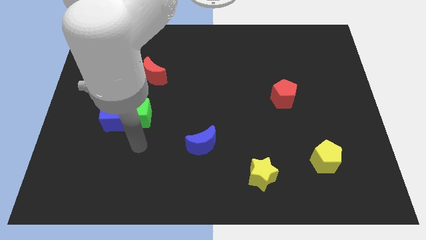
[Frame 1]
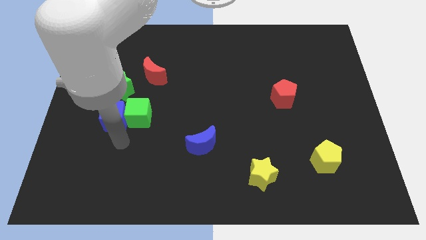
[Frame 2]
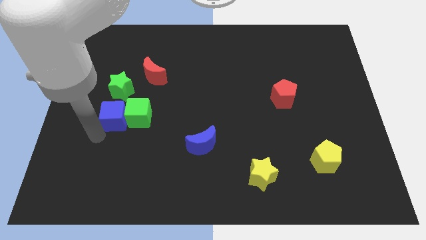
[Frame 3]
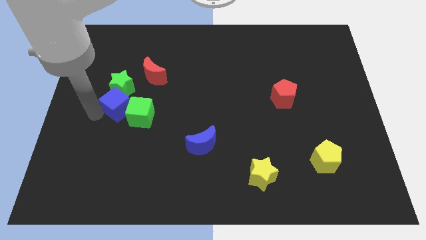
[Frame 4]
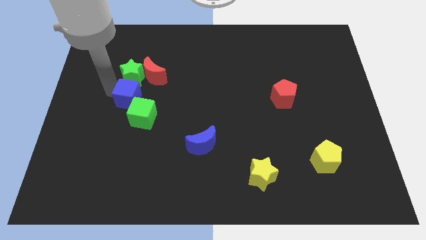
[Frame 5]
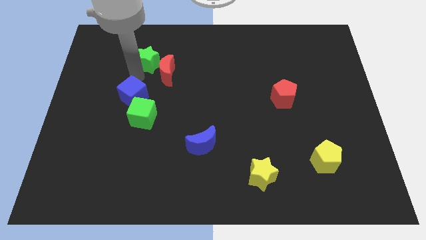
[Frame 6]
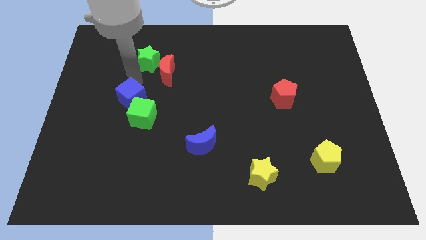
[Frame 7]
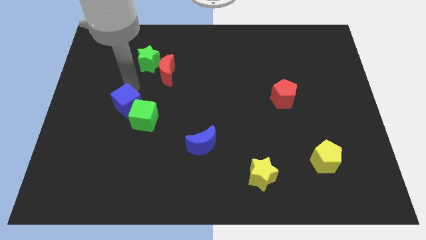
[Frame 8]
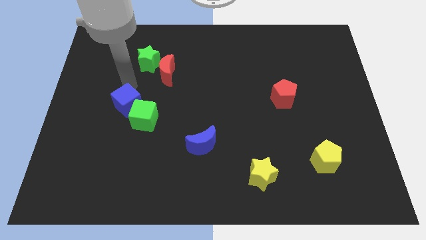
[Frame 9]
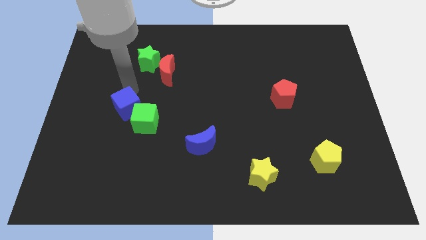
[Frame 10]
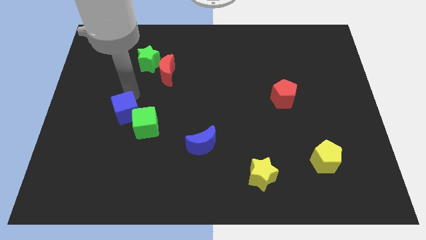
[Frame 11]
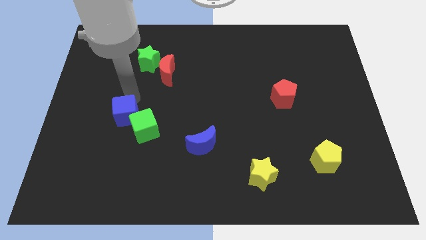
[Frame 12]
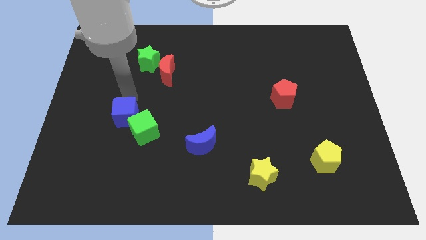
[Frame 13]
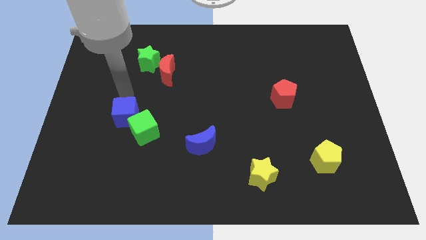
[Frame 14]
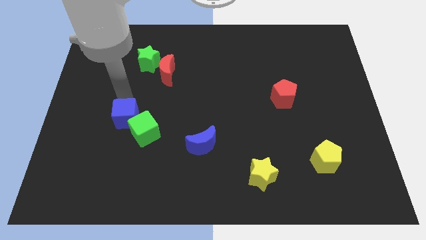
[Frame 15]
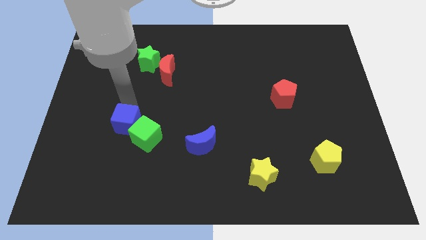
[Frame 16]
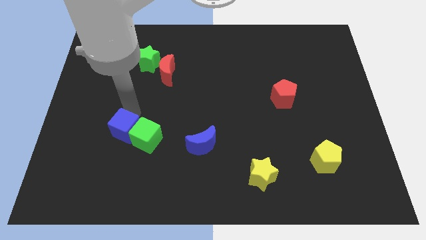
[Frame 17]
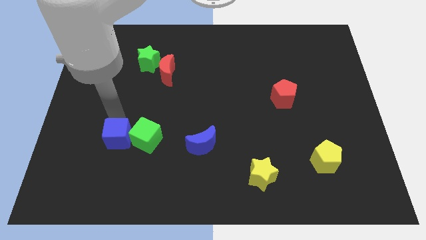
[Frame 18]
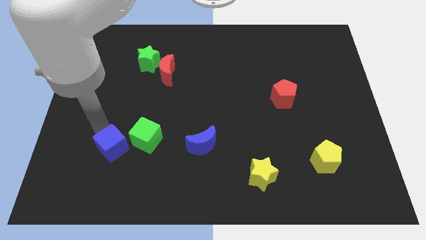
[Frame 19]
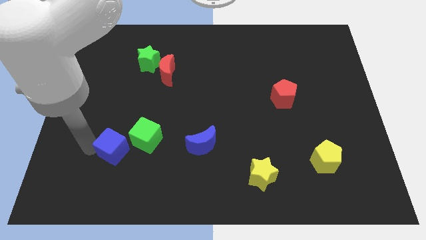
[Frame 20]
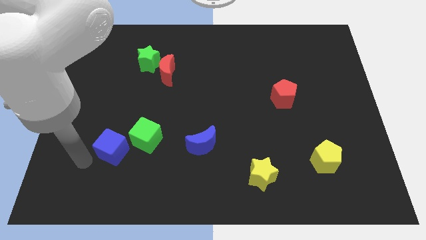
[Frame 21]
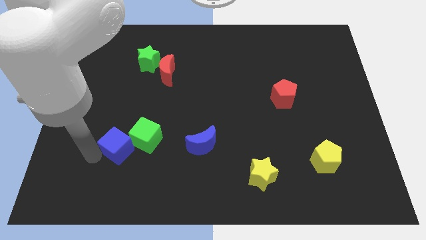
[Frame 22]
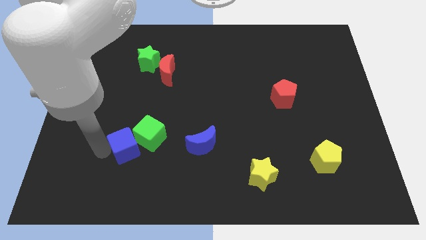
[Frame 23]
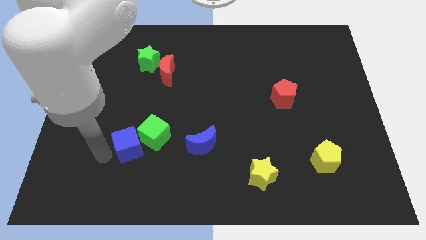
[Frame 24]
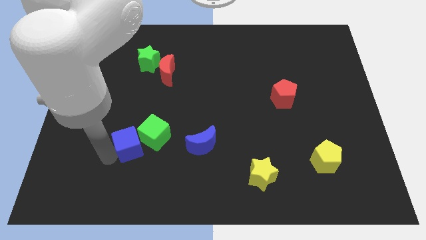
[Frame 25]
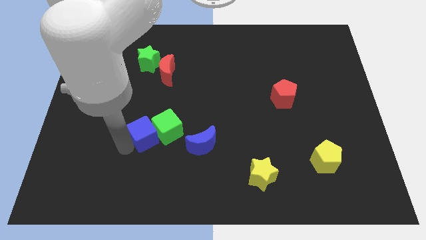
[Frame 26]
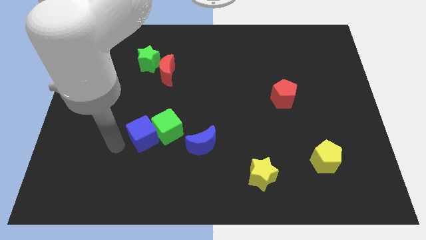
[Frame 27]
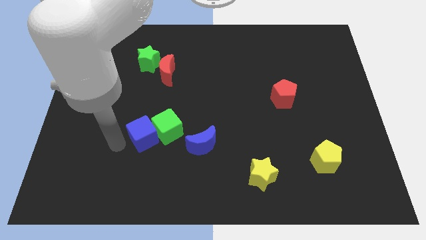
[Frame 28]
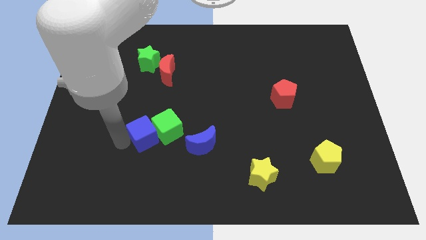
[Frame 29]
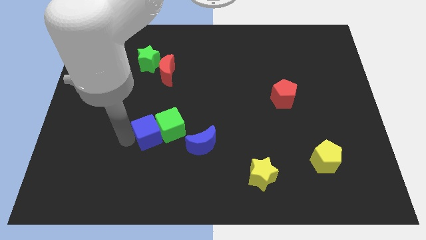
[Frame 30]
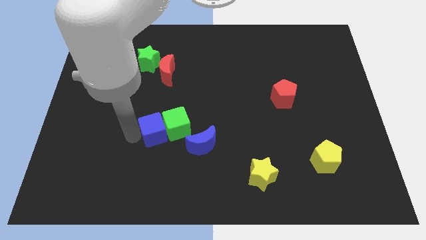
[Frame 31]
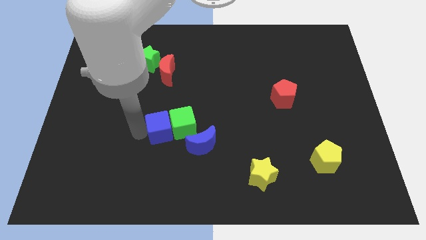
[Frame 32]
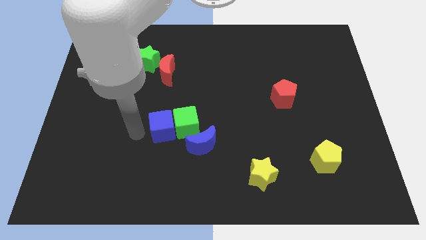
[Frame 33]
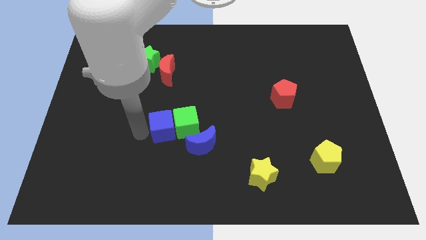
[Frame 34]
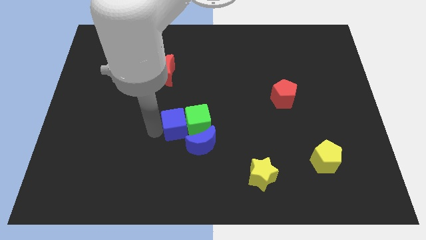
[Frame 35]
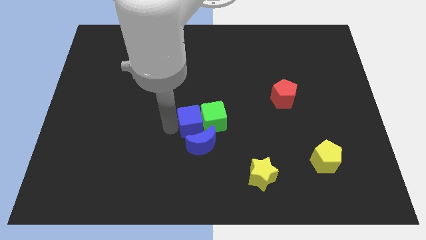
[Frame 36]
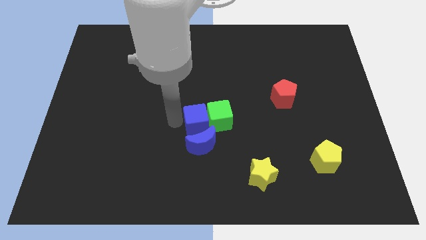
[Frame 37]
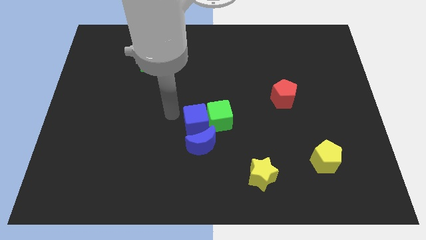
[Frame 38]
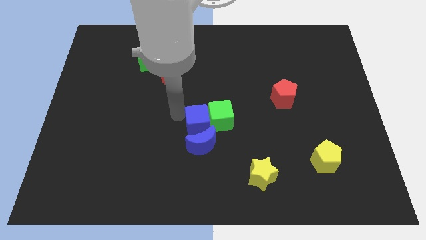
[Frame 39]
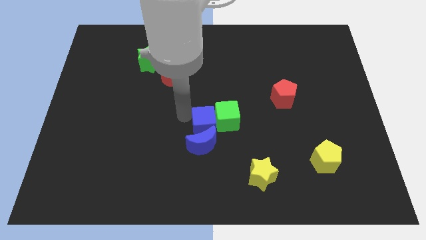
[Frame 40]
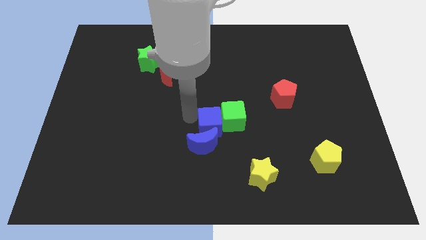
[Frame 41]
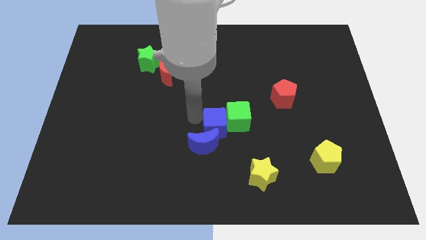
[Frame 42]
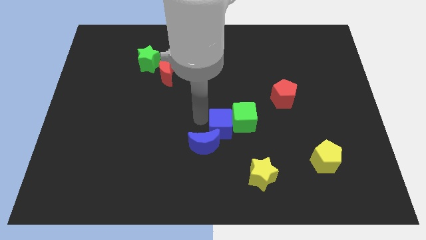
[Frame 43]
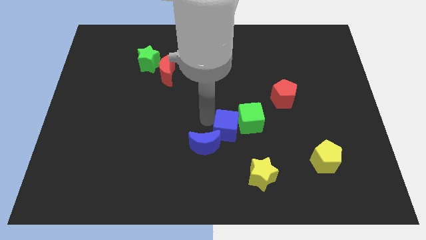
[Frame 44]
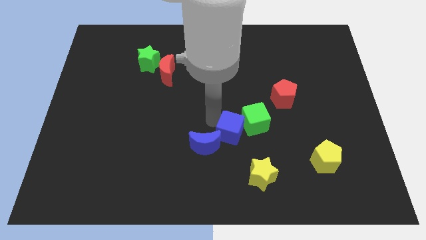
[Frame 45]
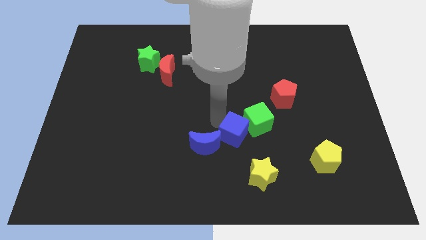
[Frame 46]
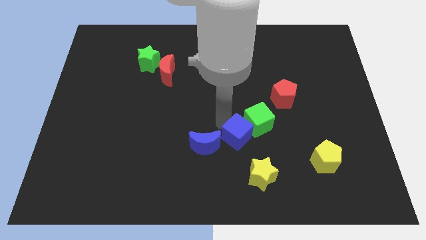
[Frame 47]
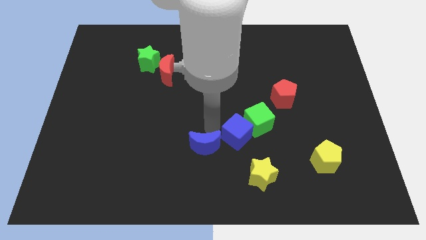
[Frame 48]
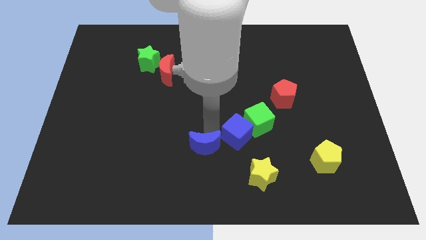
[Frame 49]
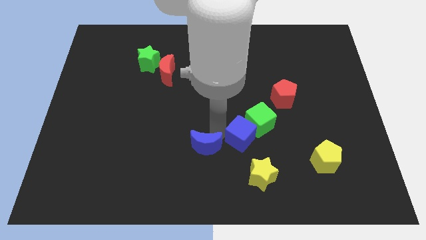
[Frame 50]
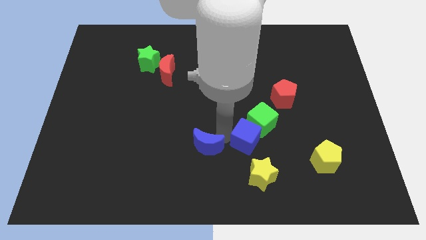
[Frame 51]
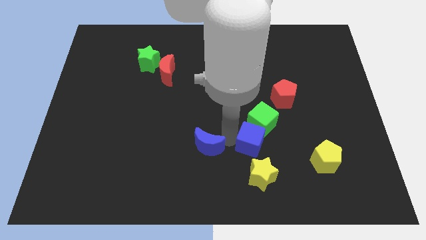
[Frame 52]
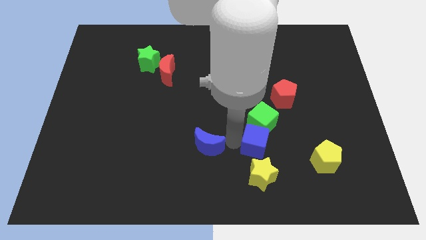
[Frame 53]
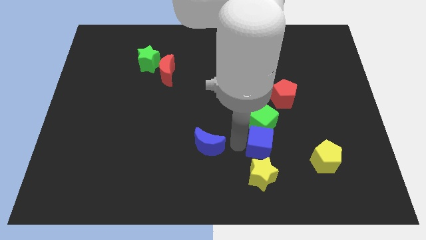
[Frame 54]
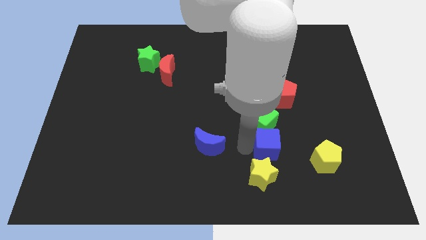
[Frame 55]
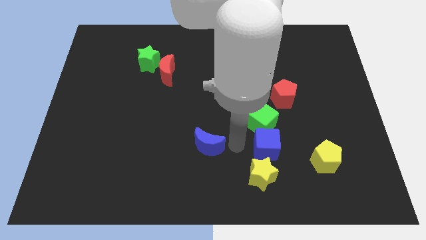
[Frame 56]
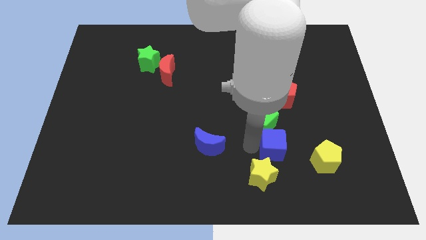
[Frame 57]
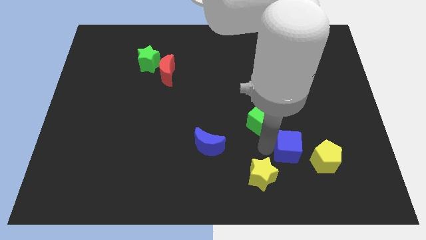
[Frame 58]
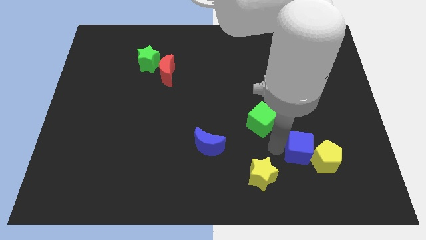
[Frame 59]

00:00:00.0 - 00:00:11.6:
slide the blue cube close to the yellow pentagon
